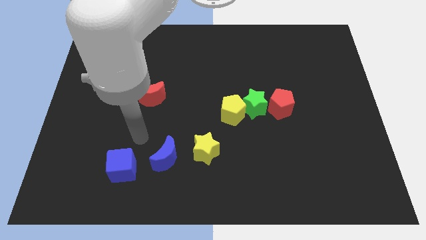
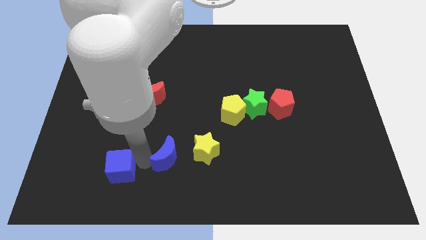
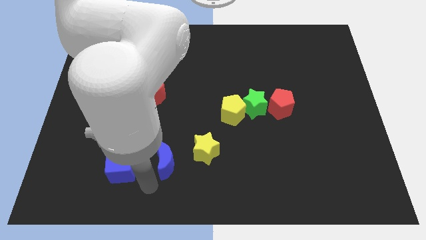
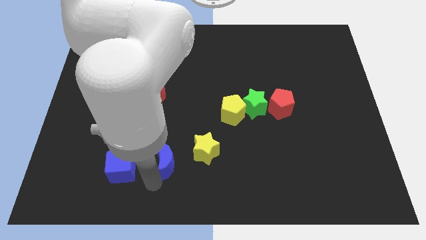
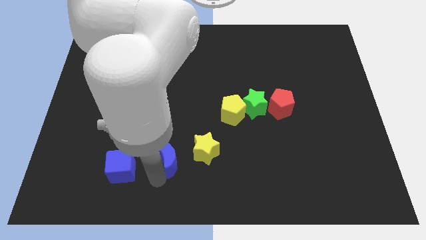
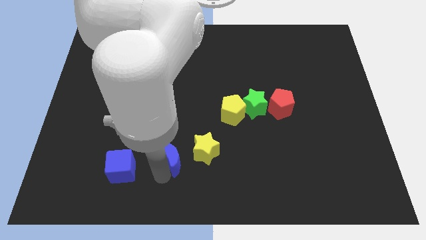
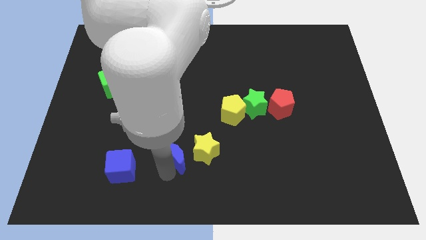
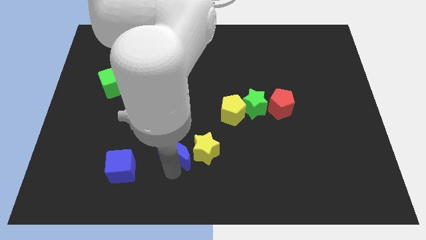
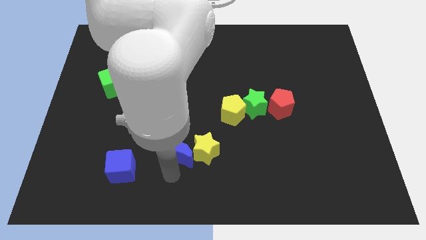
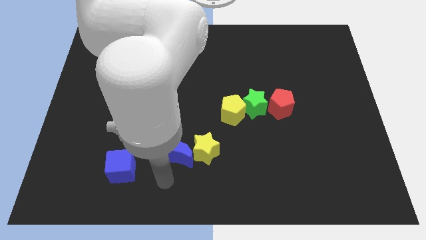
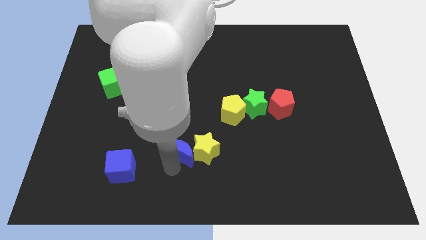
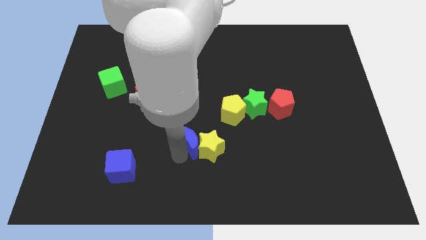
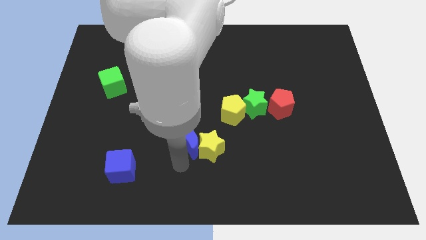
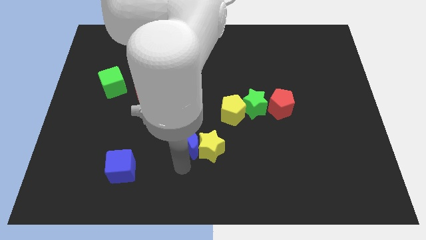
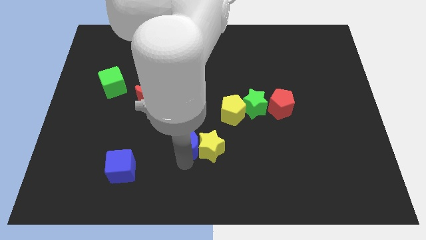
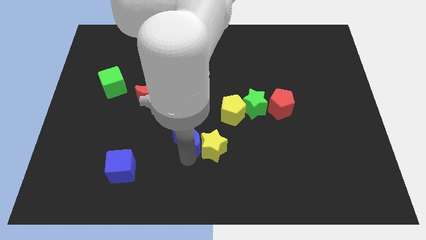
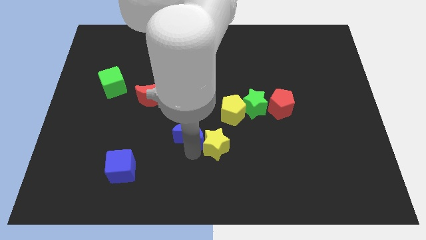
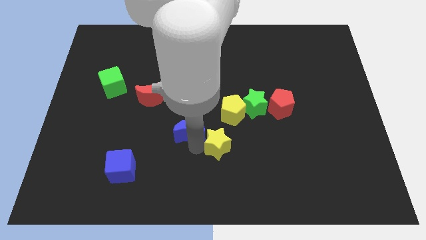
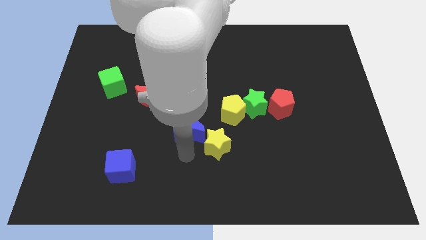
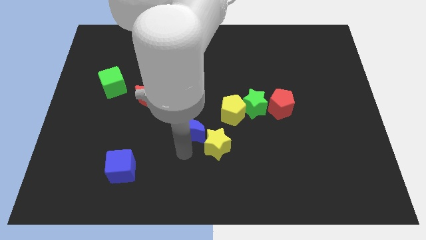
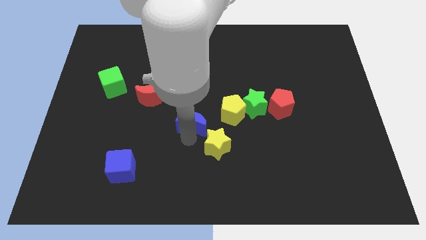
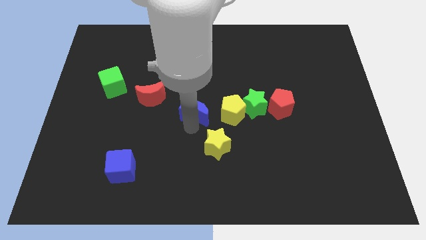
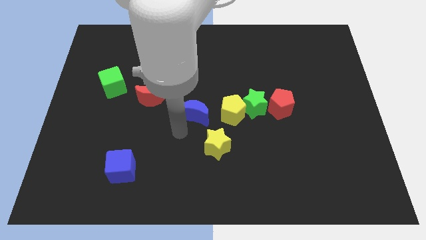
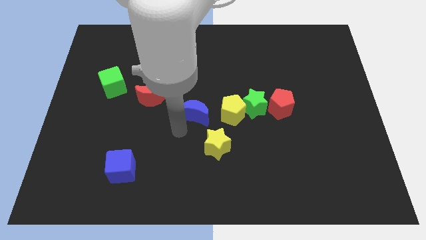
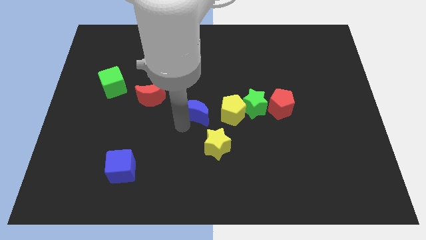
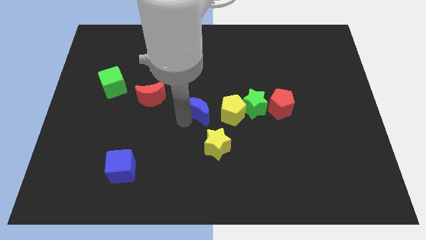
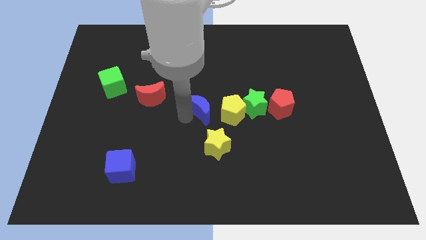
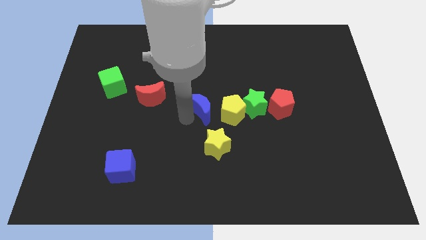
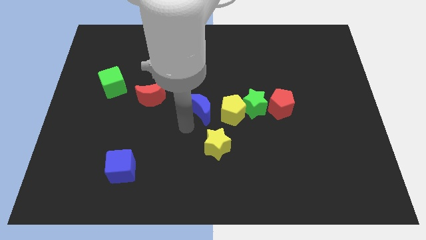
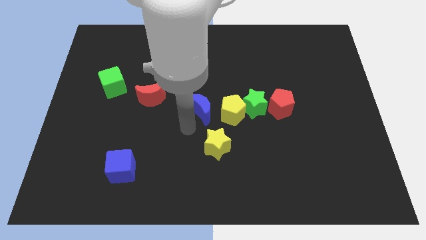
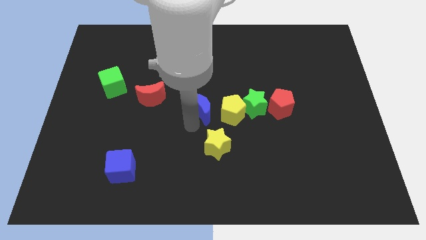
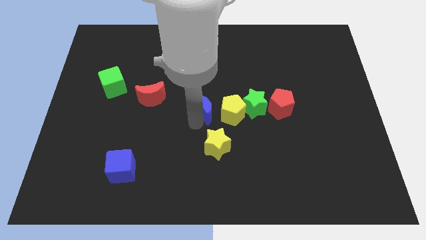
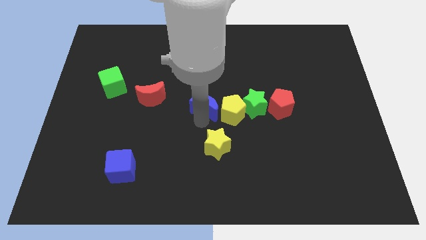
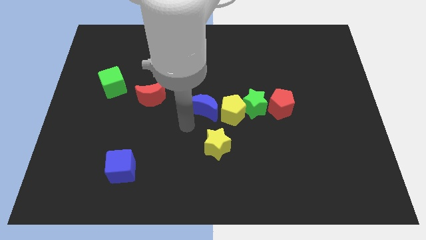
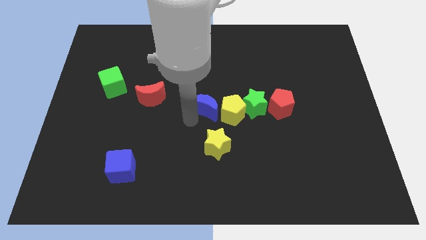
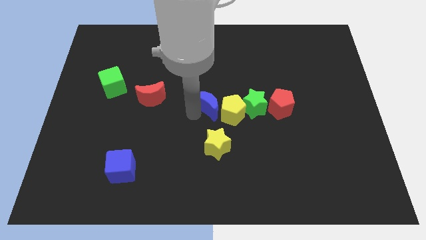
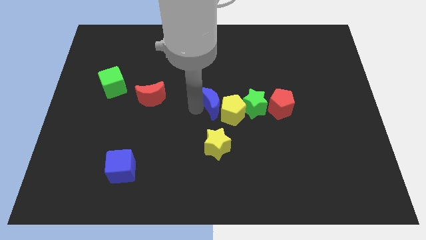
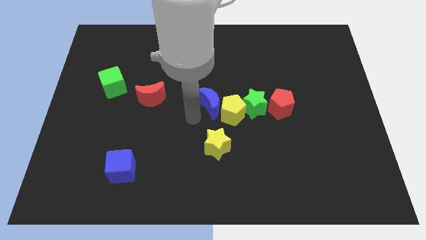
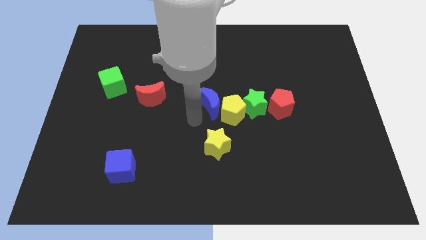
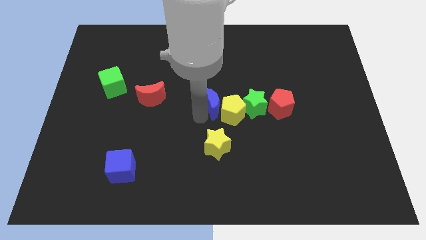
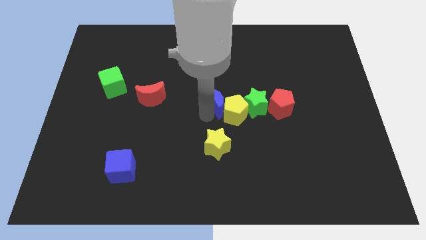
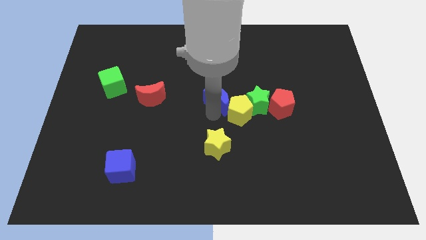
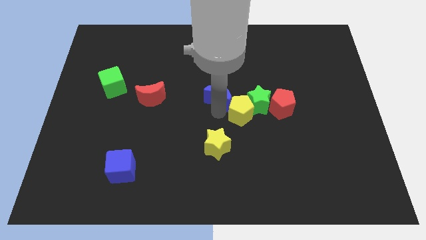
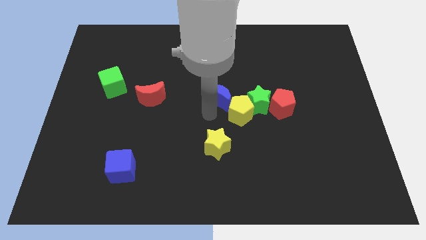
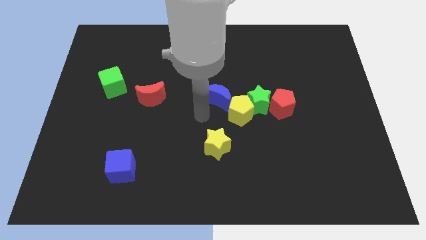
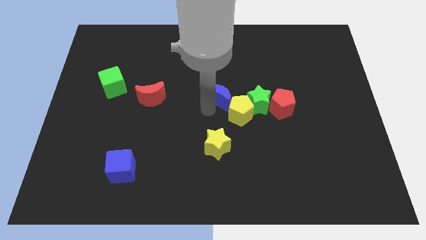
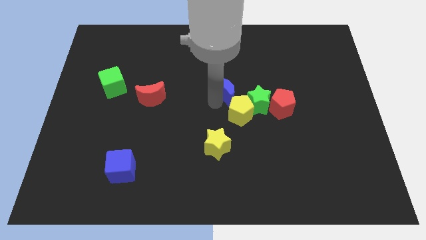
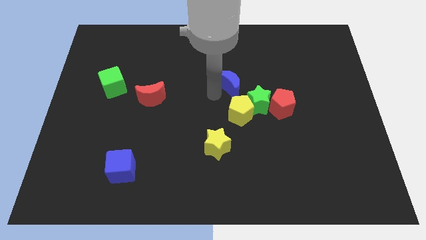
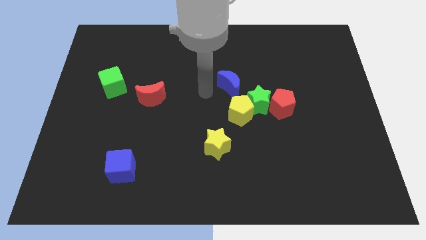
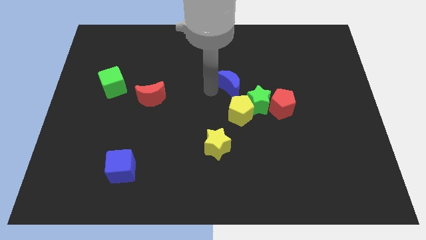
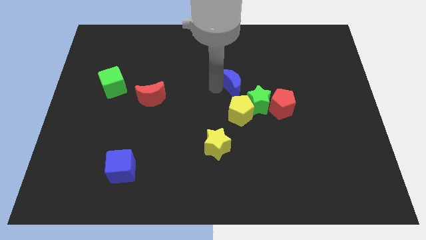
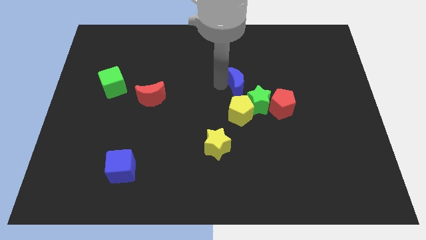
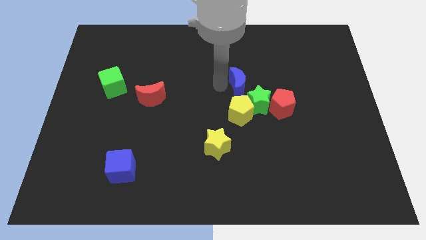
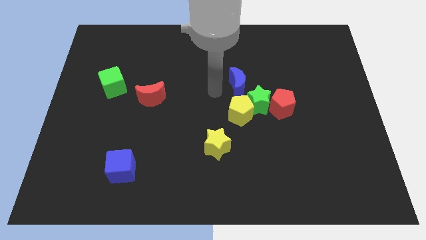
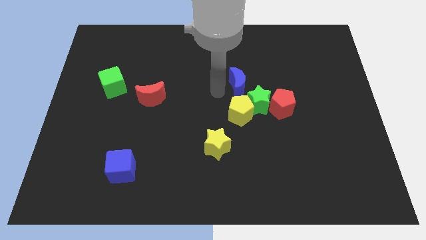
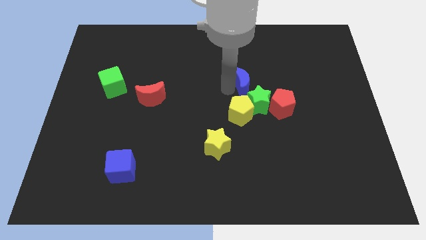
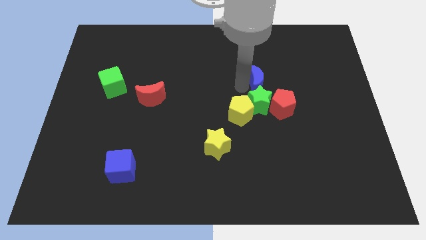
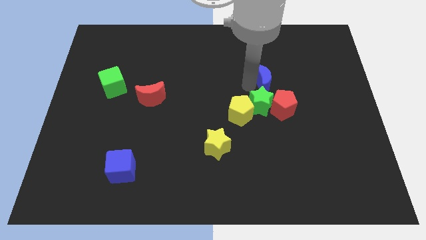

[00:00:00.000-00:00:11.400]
move the blue moon to the top side of the red pentagon

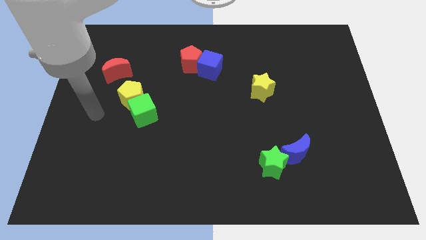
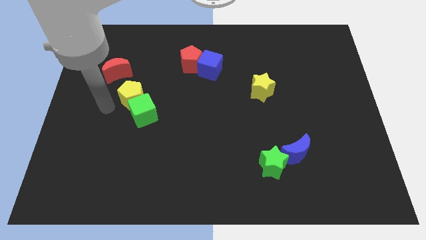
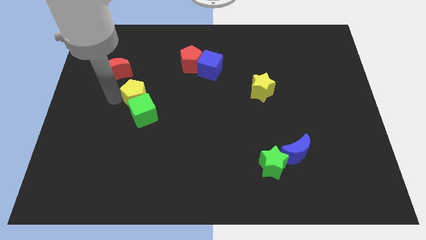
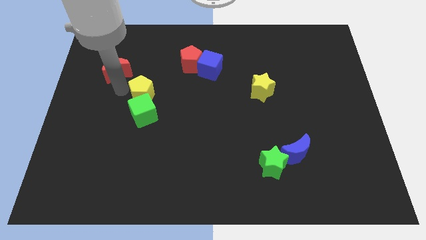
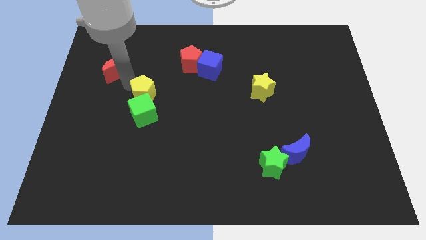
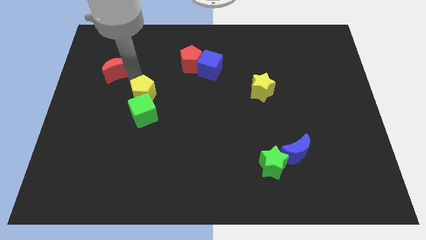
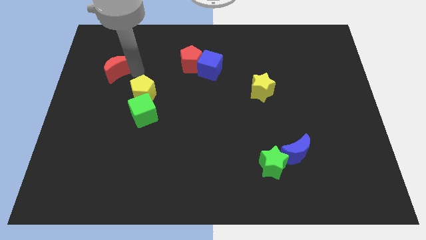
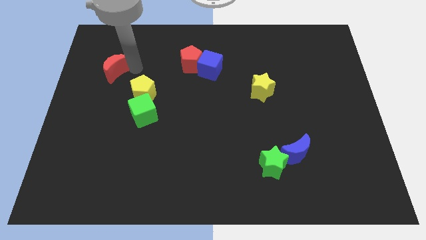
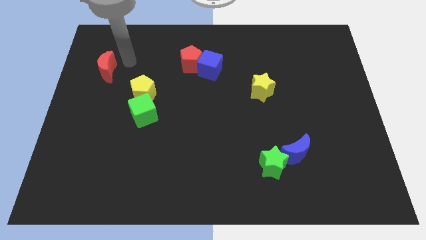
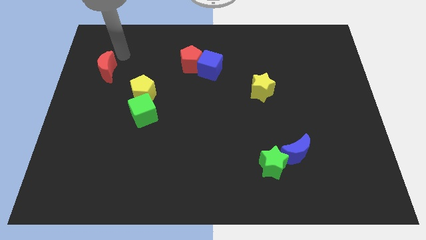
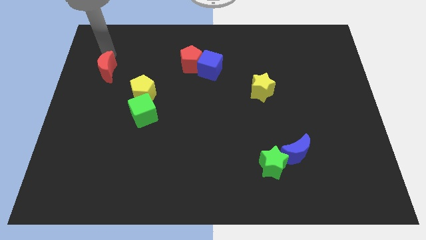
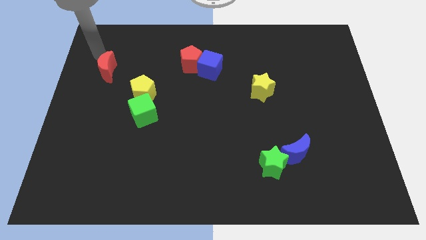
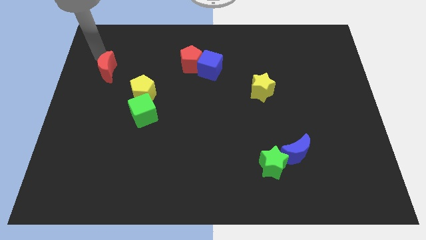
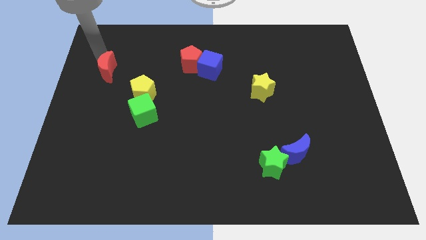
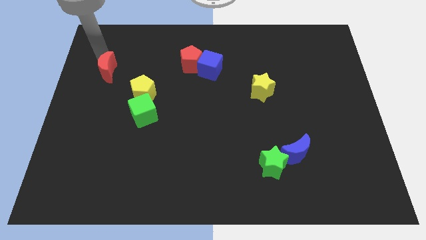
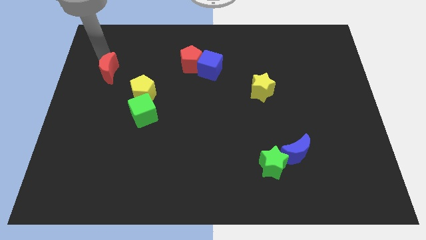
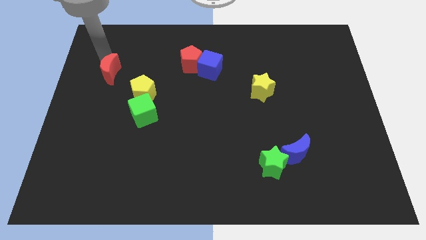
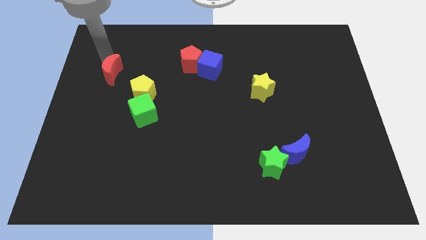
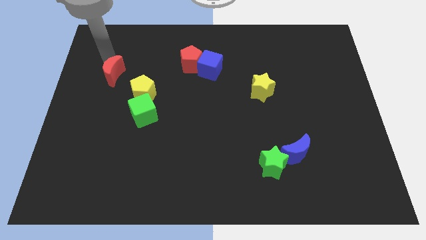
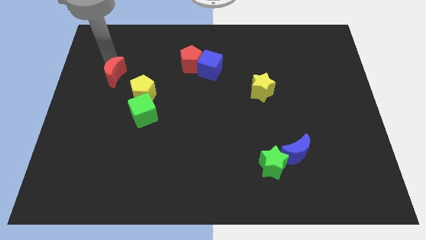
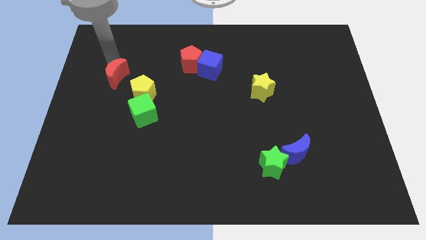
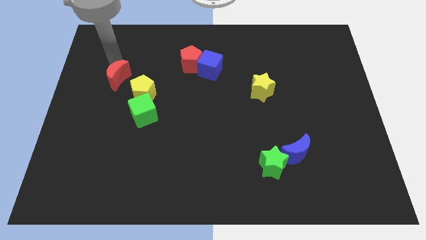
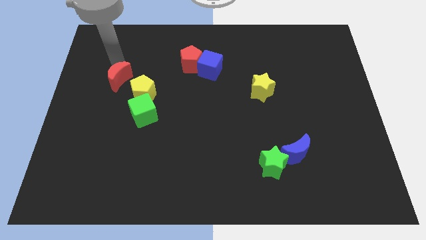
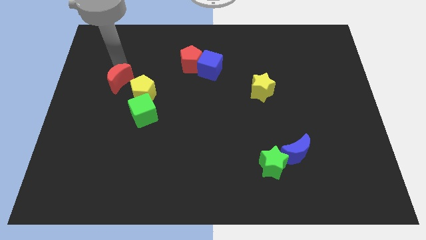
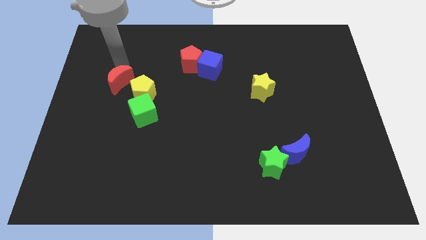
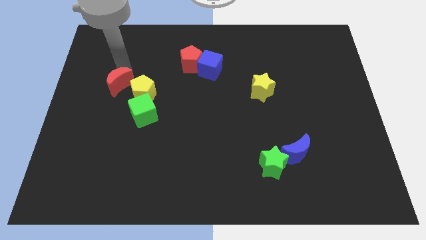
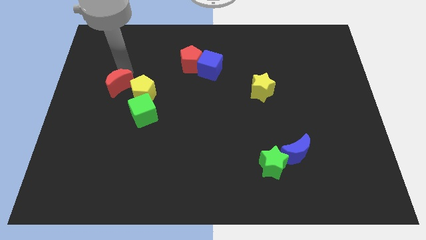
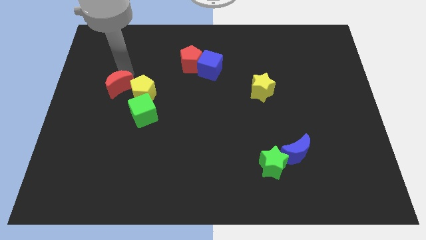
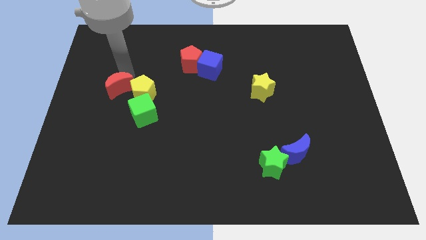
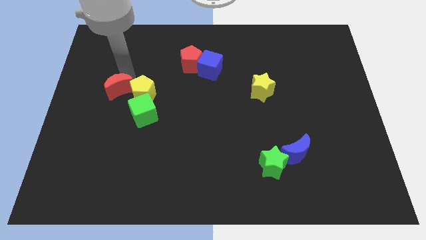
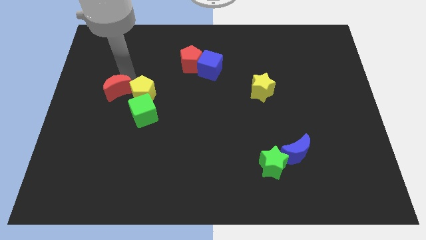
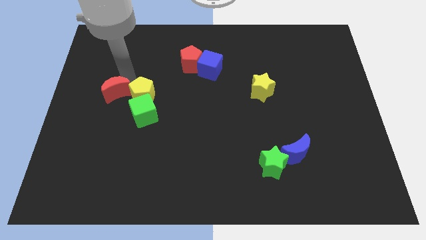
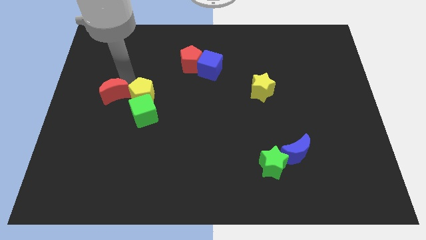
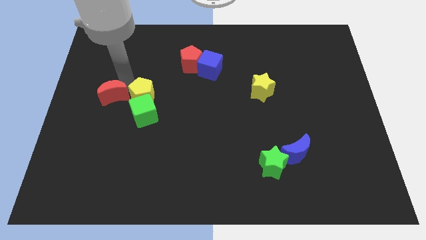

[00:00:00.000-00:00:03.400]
put the red moon to the bottom left of the yellow pentagon
